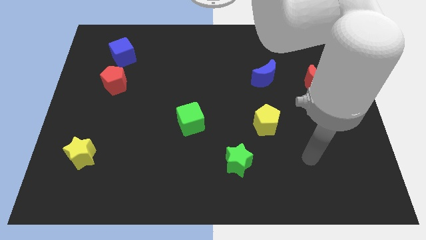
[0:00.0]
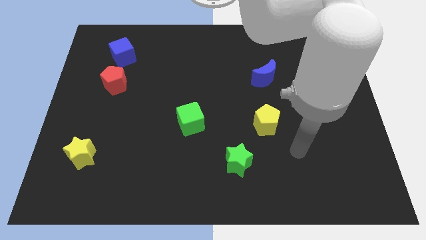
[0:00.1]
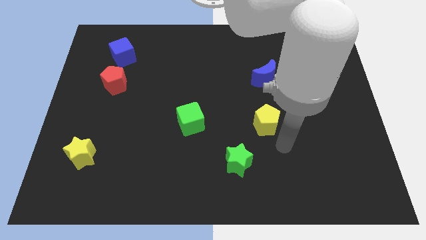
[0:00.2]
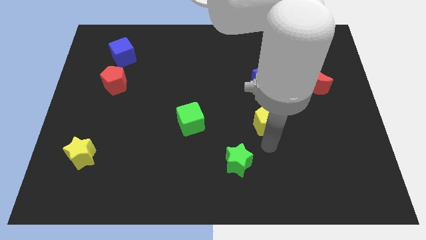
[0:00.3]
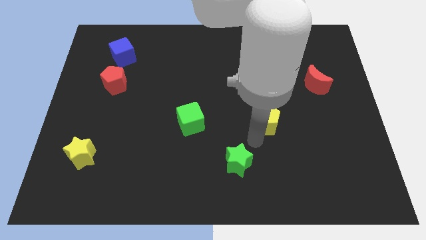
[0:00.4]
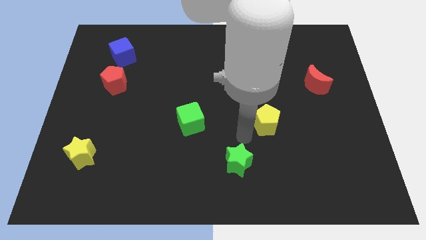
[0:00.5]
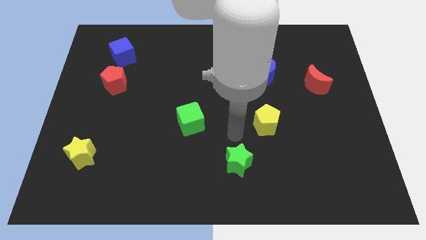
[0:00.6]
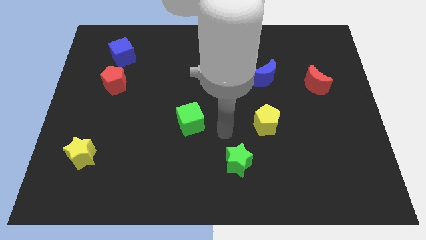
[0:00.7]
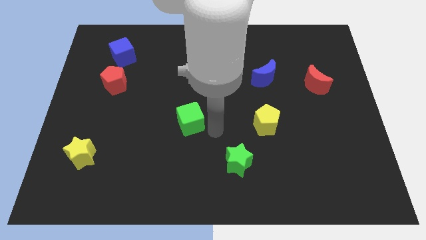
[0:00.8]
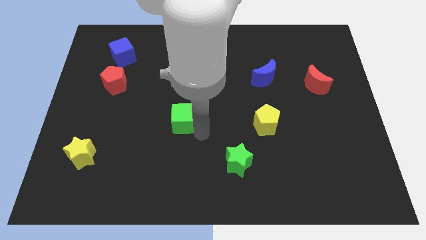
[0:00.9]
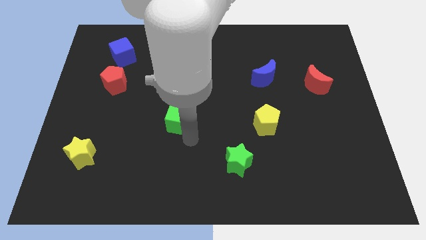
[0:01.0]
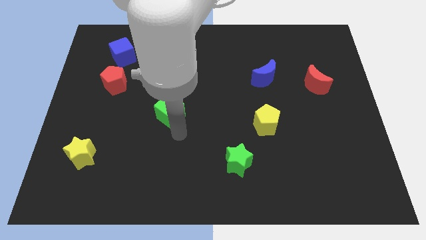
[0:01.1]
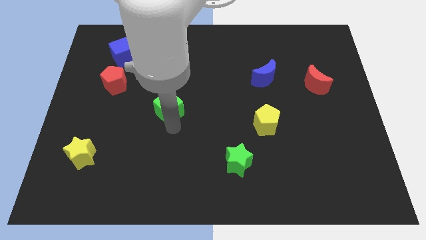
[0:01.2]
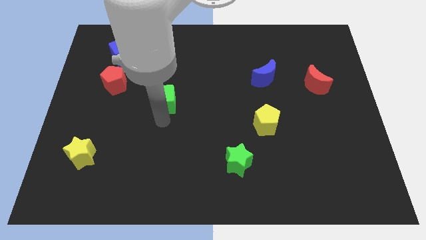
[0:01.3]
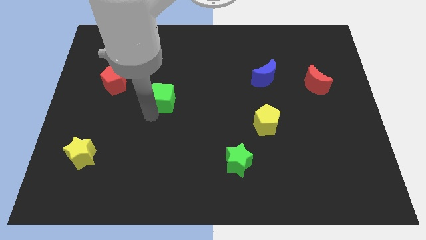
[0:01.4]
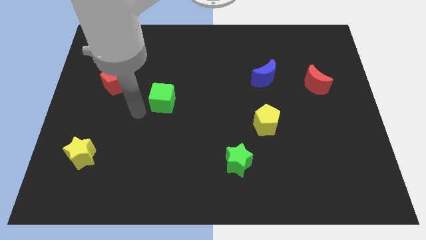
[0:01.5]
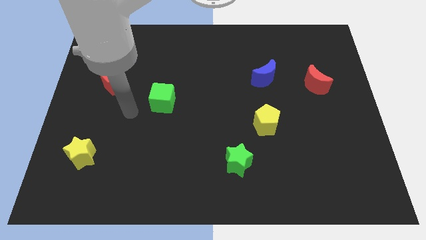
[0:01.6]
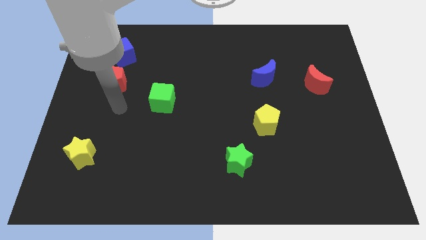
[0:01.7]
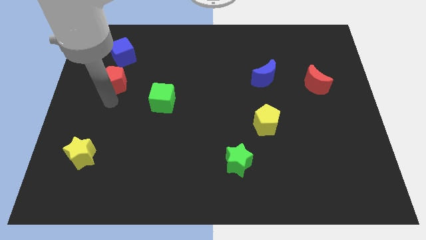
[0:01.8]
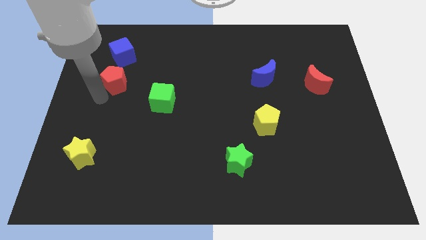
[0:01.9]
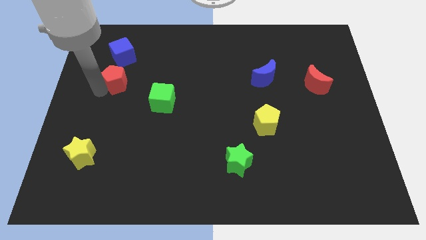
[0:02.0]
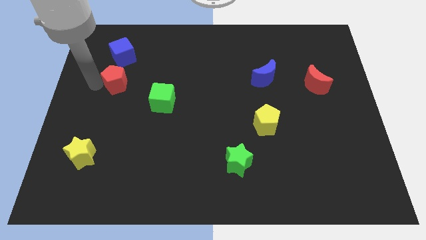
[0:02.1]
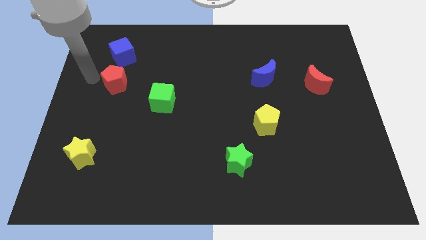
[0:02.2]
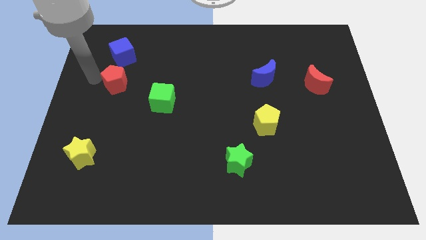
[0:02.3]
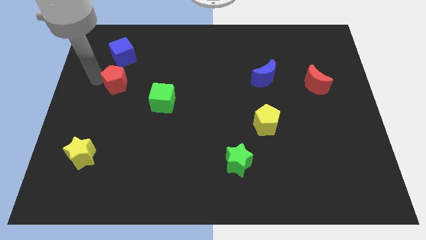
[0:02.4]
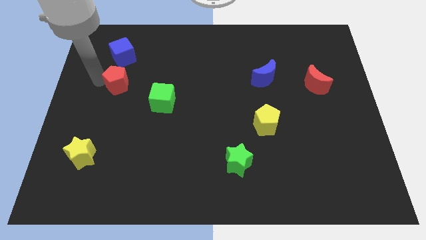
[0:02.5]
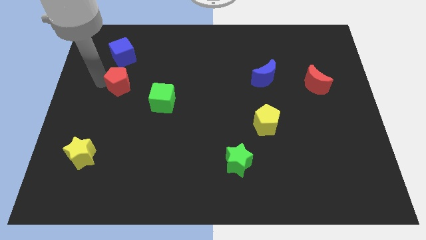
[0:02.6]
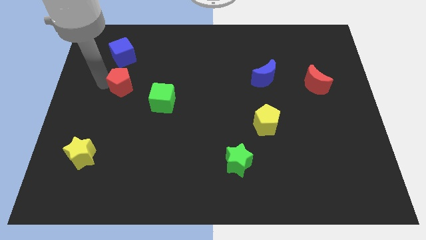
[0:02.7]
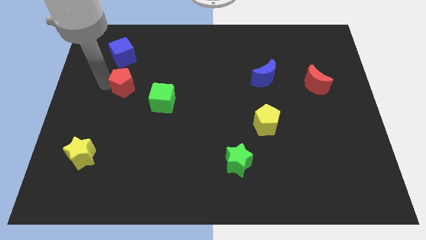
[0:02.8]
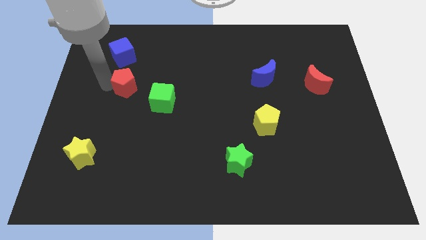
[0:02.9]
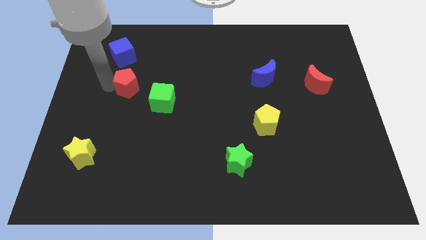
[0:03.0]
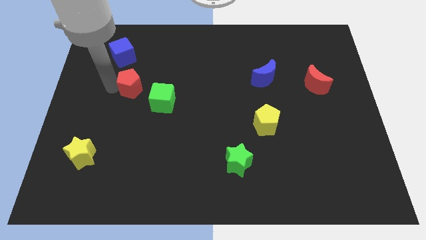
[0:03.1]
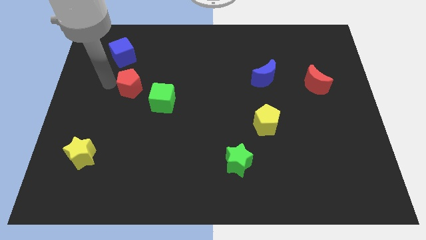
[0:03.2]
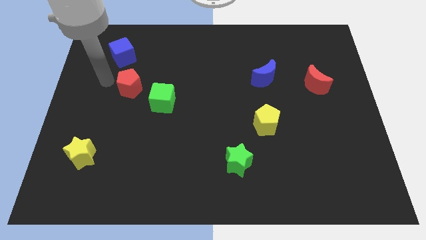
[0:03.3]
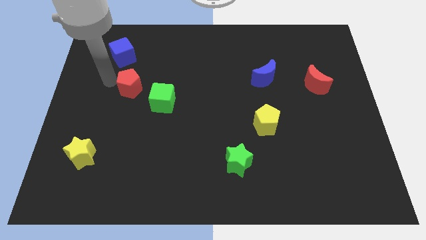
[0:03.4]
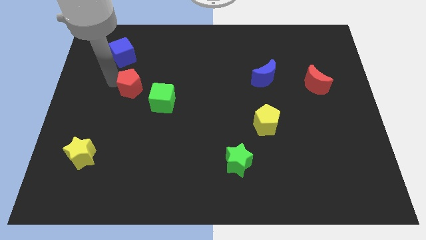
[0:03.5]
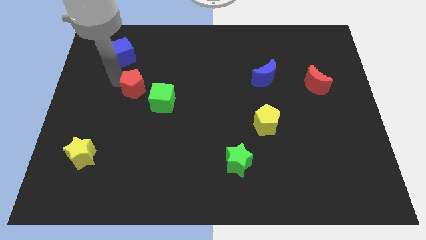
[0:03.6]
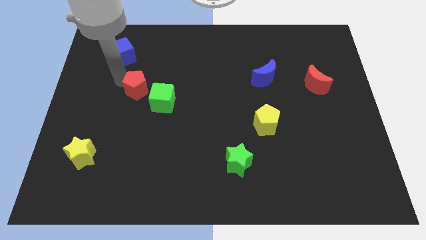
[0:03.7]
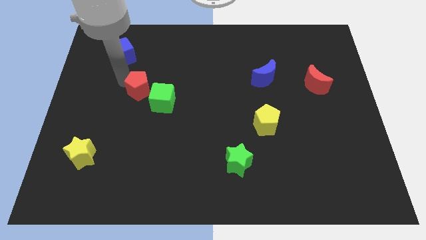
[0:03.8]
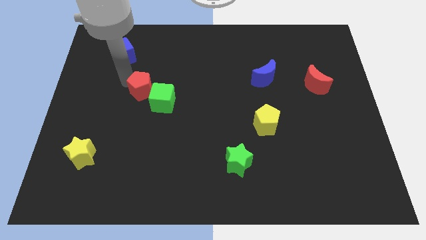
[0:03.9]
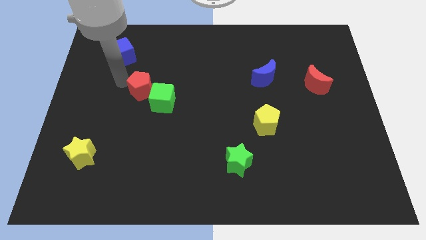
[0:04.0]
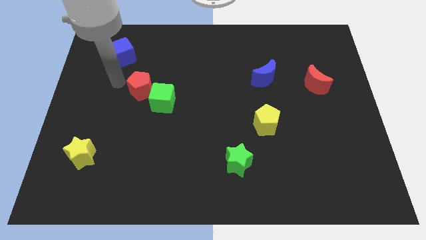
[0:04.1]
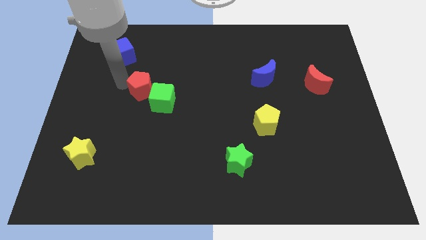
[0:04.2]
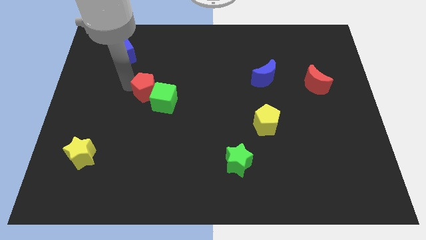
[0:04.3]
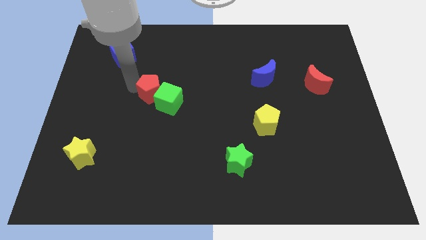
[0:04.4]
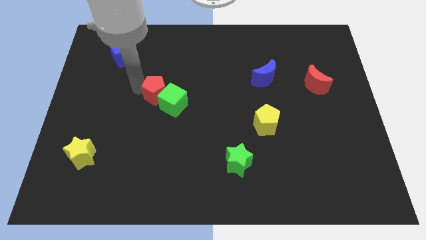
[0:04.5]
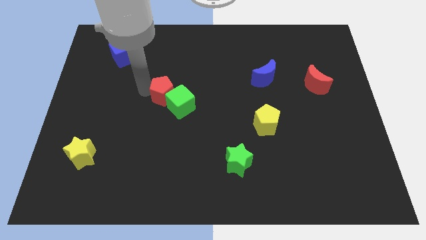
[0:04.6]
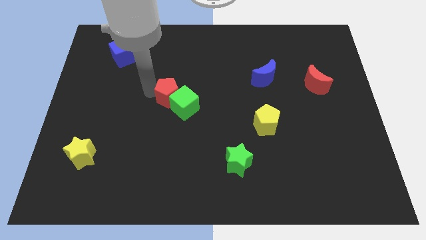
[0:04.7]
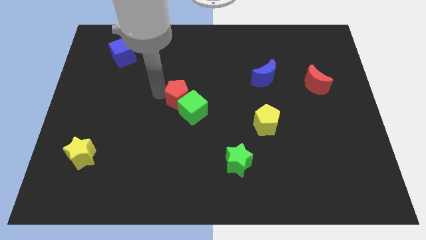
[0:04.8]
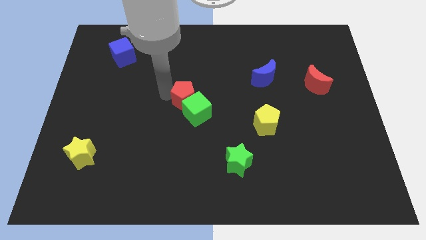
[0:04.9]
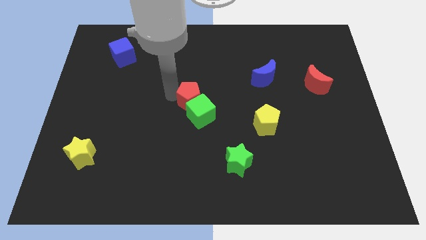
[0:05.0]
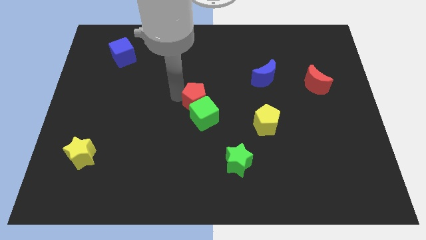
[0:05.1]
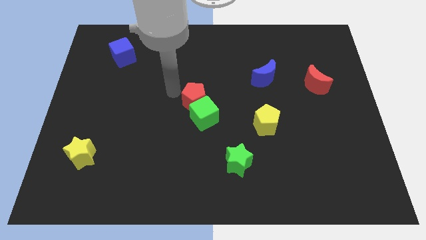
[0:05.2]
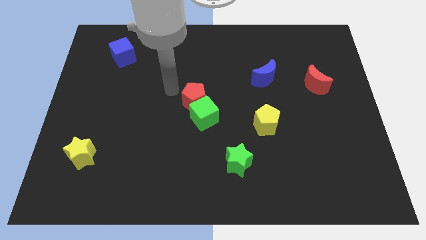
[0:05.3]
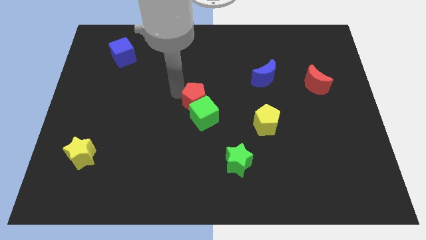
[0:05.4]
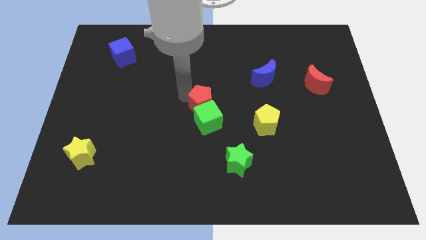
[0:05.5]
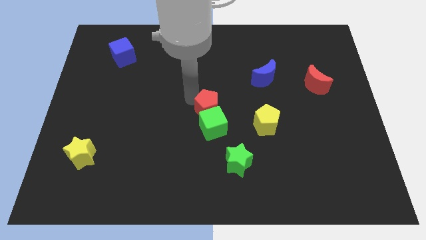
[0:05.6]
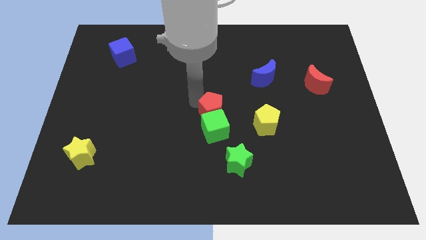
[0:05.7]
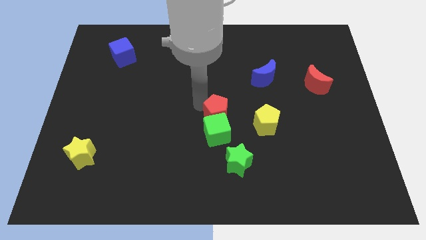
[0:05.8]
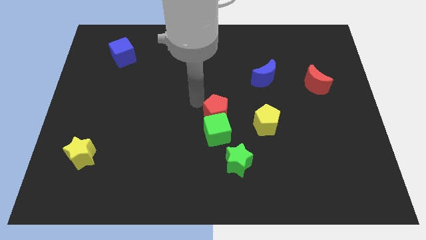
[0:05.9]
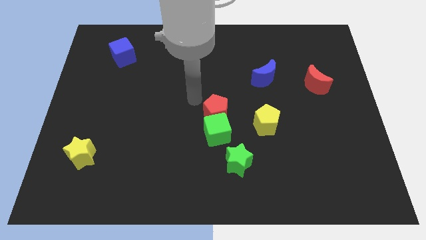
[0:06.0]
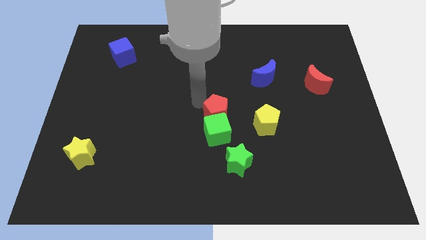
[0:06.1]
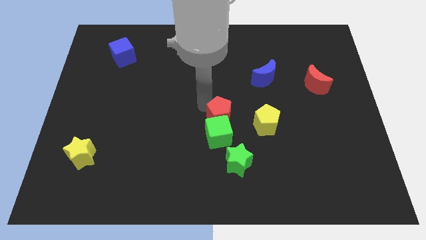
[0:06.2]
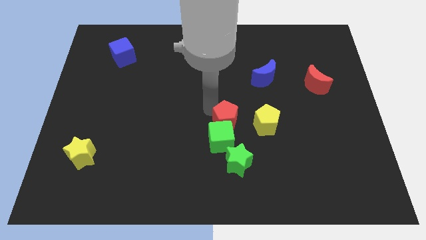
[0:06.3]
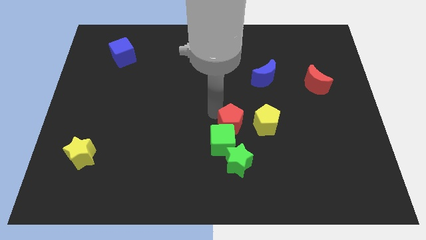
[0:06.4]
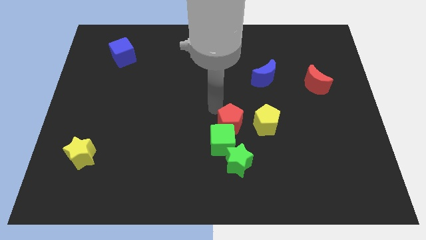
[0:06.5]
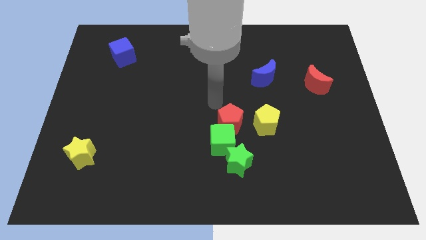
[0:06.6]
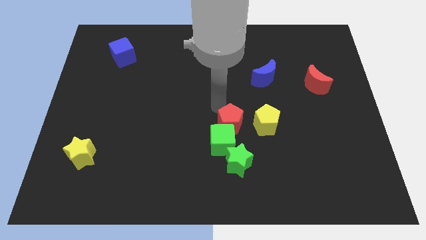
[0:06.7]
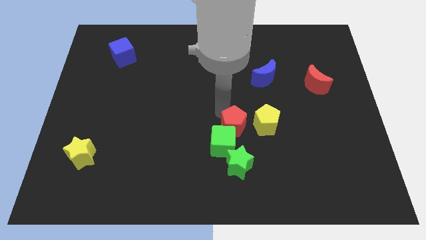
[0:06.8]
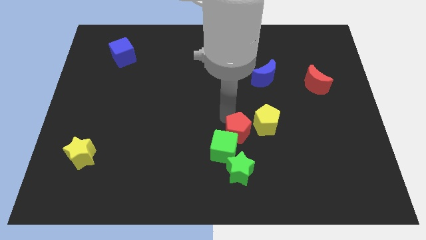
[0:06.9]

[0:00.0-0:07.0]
slide the red pentagon to the bottom left of the yellow pentagon

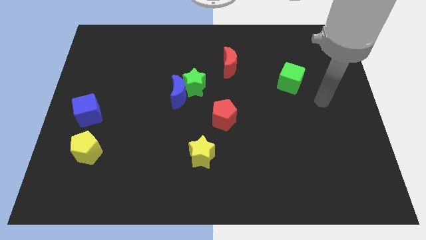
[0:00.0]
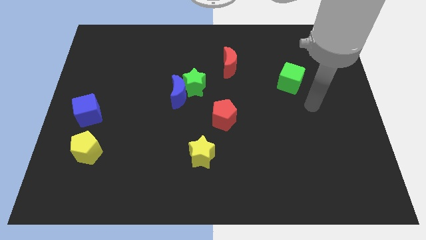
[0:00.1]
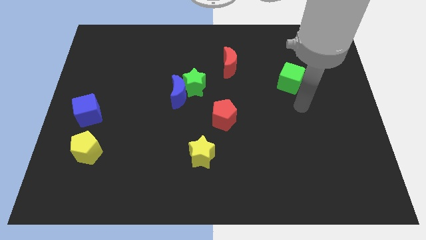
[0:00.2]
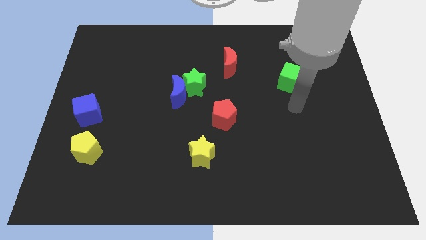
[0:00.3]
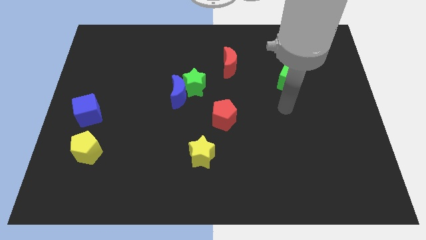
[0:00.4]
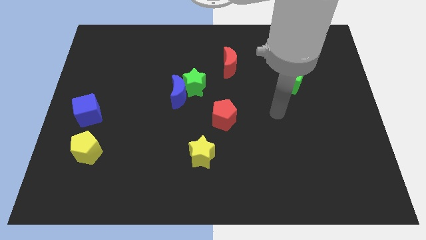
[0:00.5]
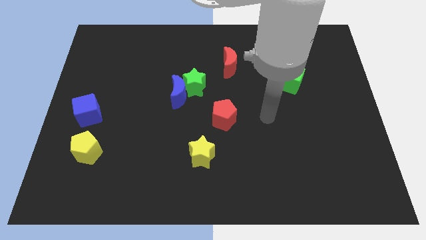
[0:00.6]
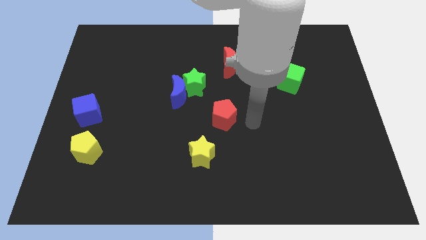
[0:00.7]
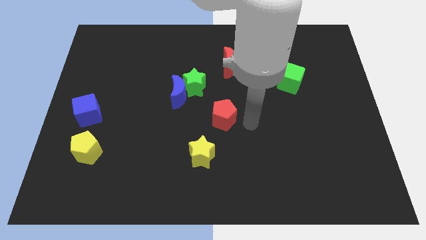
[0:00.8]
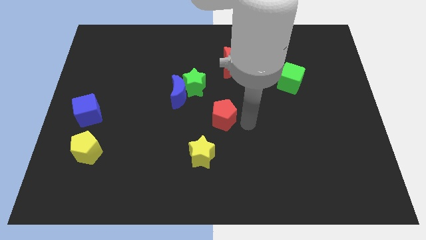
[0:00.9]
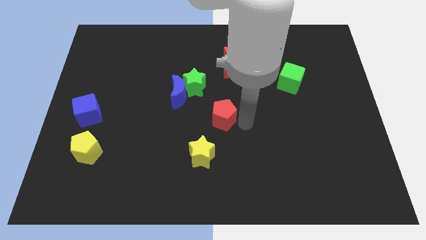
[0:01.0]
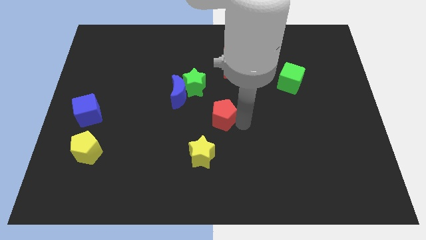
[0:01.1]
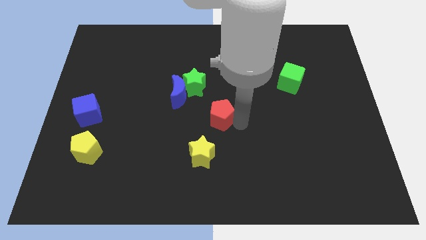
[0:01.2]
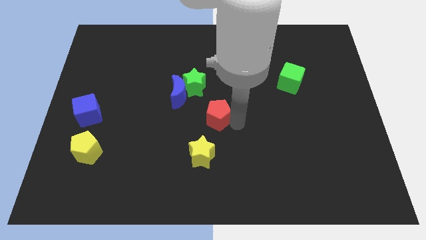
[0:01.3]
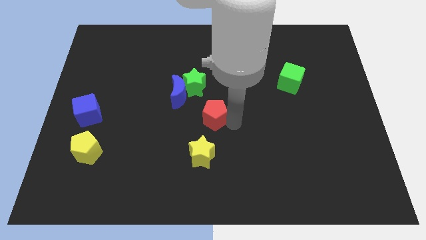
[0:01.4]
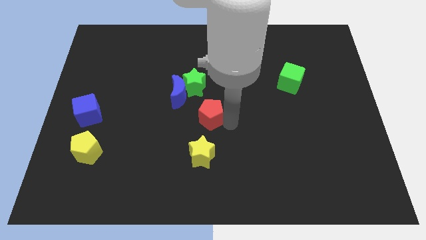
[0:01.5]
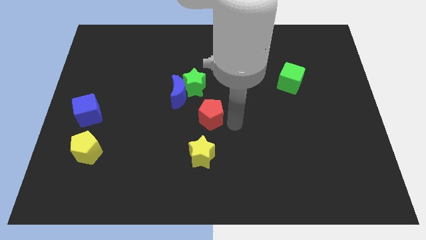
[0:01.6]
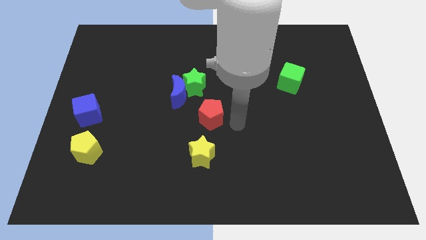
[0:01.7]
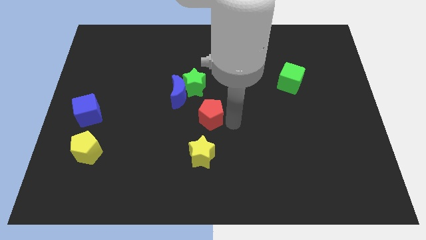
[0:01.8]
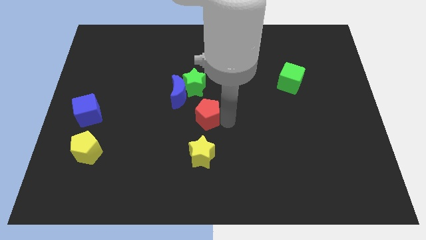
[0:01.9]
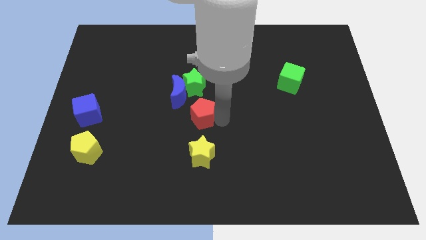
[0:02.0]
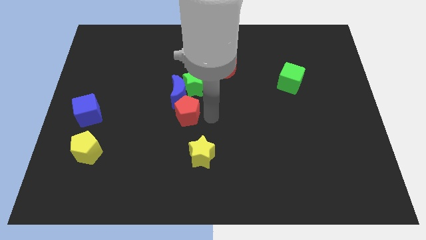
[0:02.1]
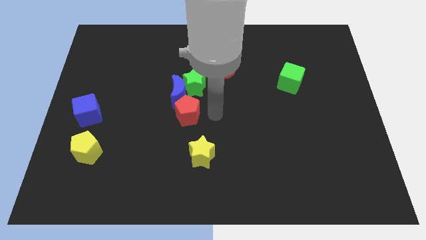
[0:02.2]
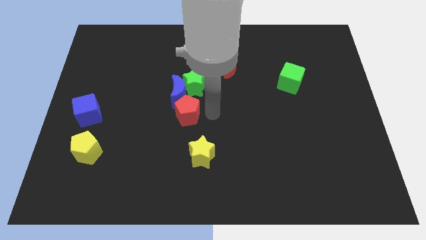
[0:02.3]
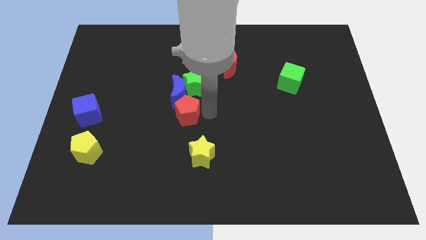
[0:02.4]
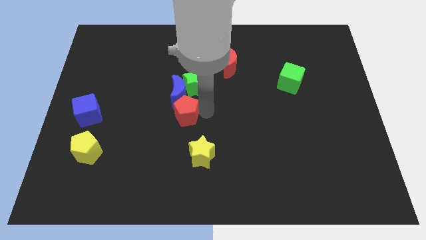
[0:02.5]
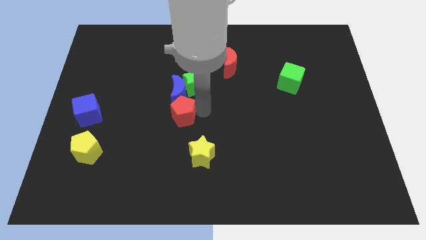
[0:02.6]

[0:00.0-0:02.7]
push the red pentagon diagonally down and to the left of the blue moon
